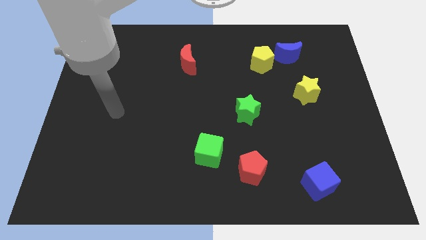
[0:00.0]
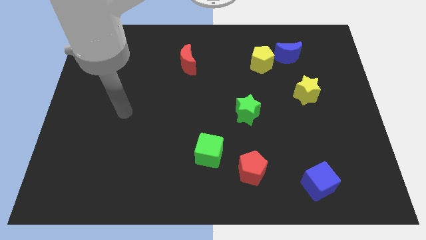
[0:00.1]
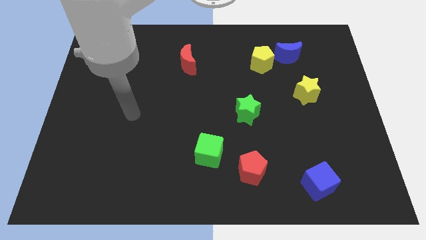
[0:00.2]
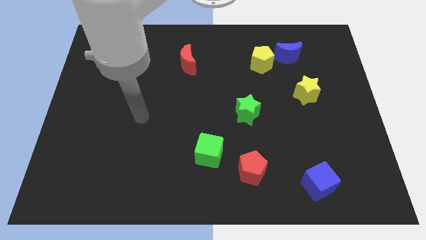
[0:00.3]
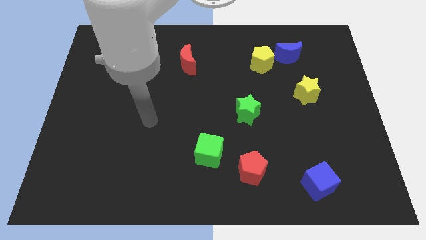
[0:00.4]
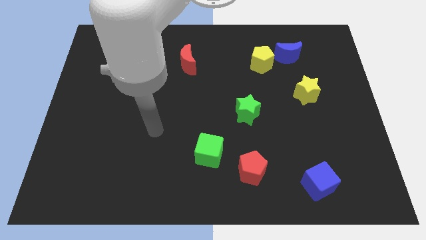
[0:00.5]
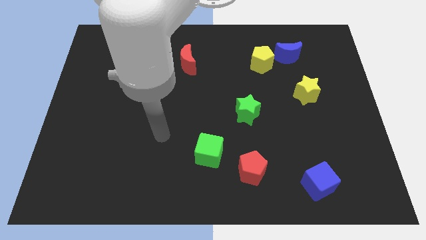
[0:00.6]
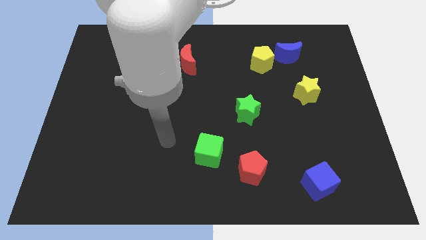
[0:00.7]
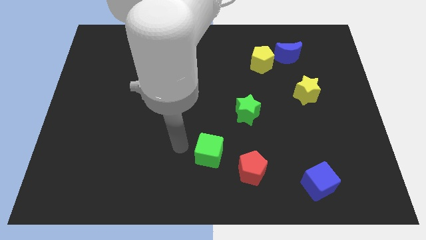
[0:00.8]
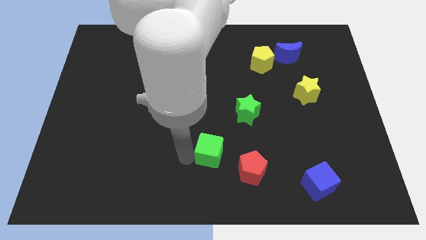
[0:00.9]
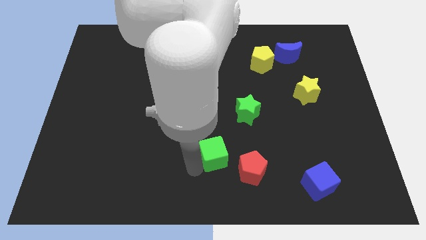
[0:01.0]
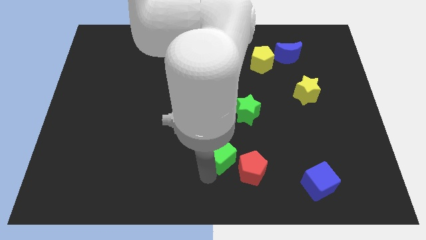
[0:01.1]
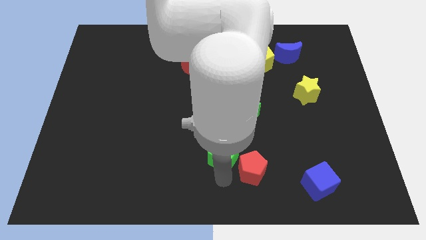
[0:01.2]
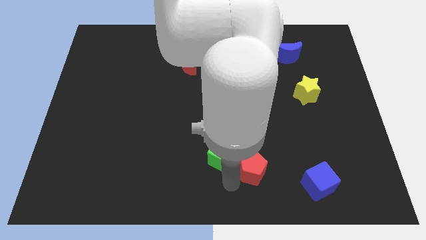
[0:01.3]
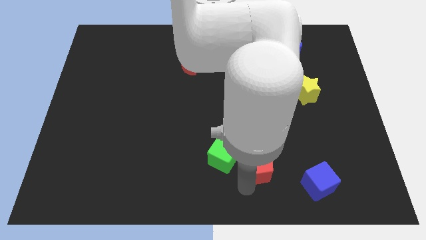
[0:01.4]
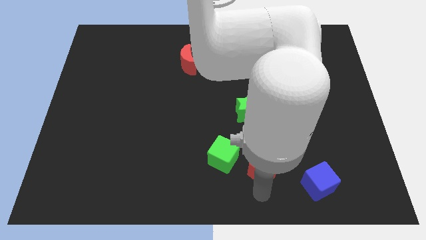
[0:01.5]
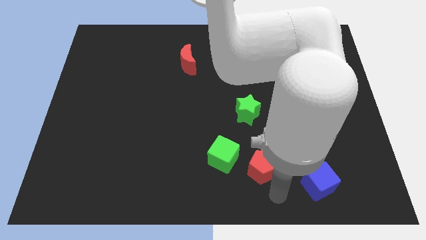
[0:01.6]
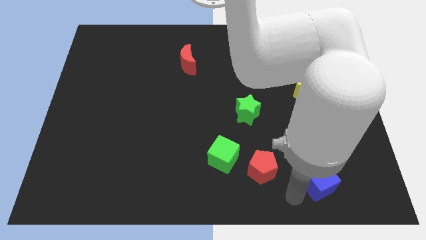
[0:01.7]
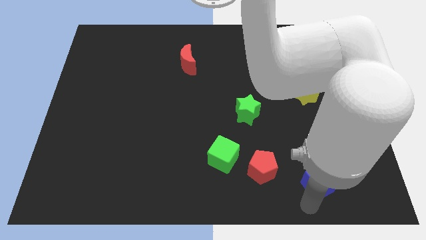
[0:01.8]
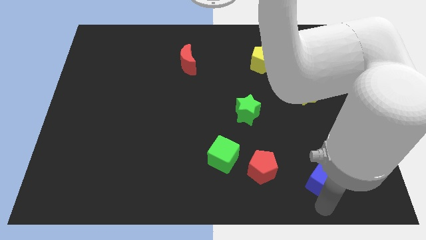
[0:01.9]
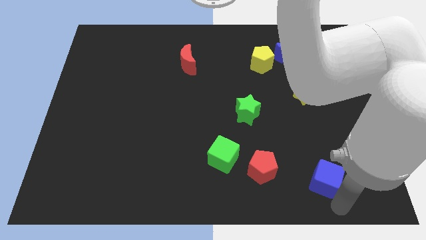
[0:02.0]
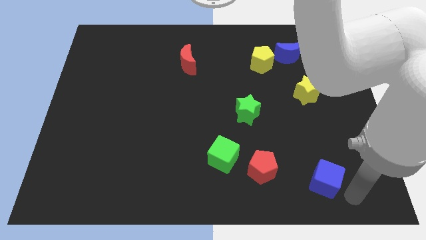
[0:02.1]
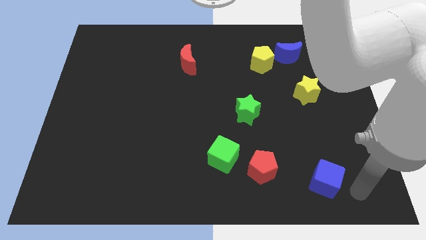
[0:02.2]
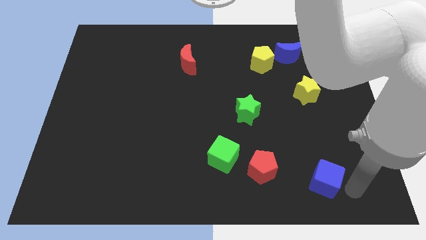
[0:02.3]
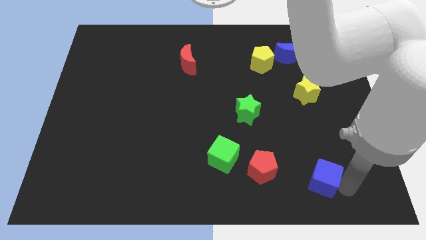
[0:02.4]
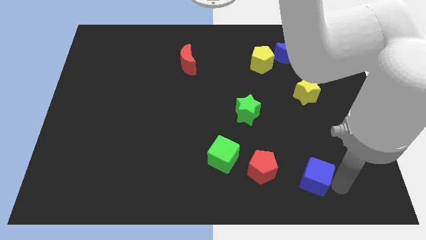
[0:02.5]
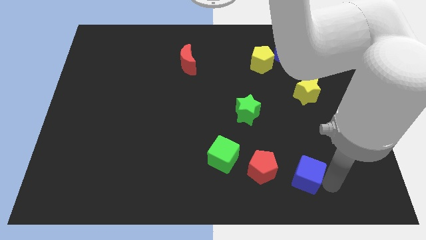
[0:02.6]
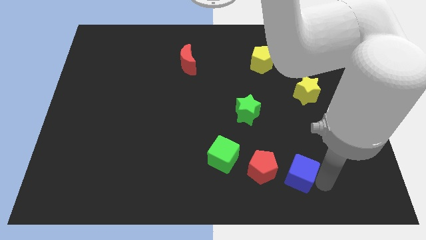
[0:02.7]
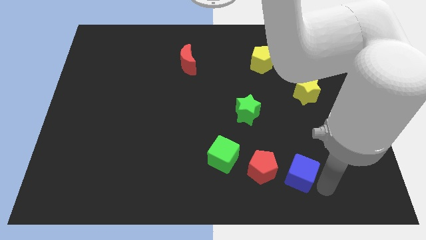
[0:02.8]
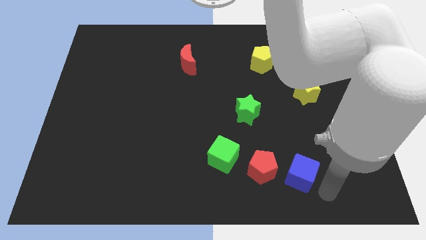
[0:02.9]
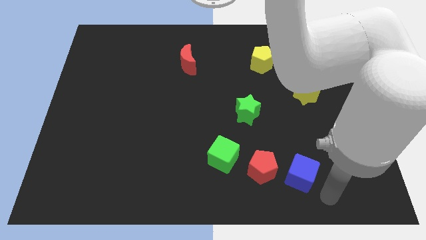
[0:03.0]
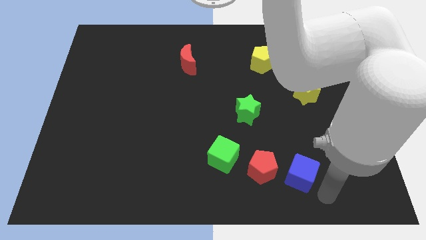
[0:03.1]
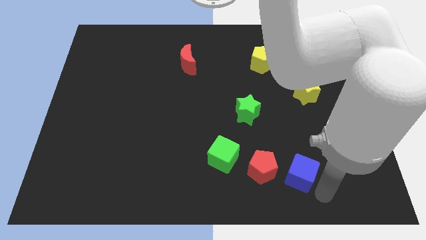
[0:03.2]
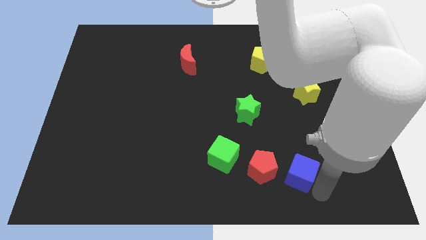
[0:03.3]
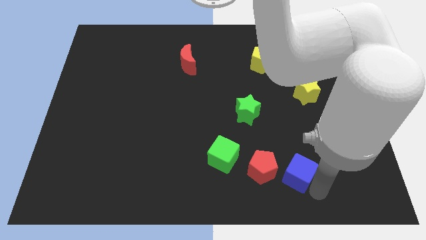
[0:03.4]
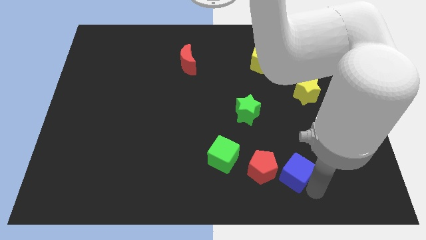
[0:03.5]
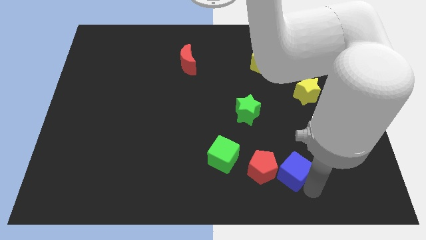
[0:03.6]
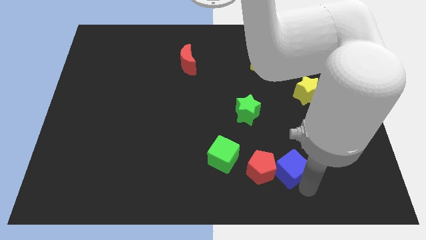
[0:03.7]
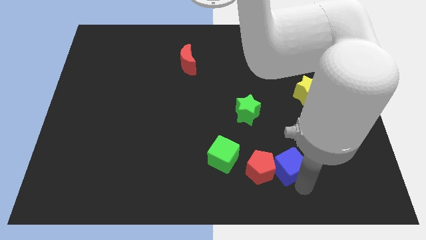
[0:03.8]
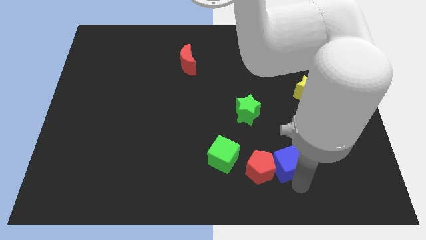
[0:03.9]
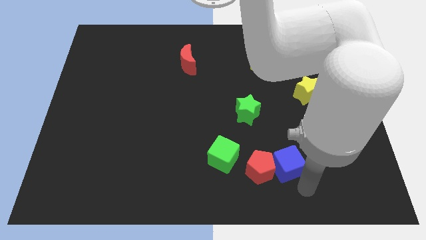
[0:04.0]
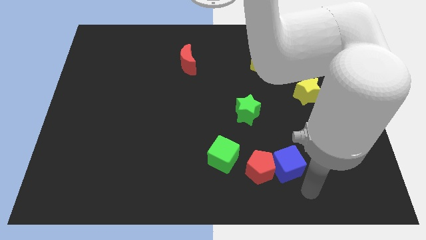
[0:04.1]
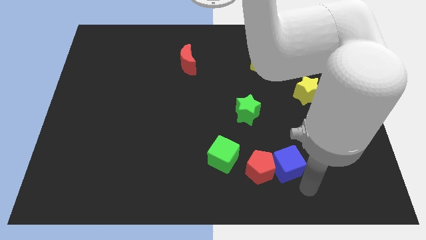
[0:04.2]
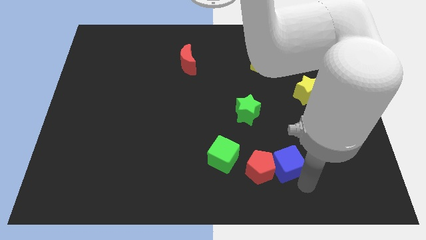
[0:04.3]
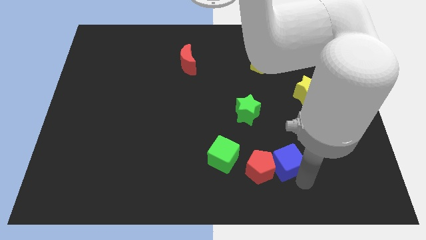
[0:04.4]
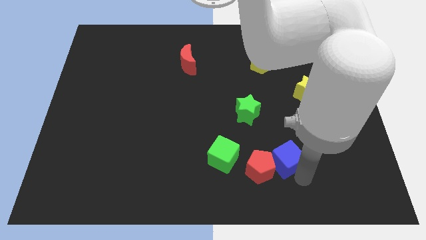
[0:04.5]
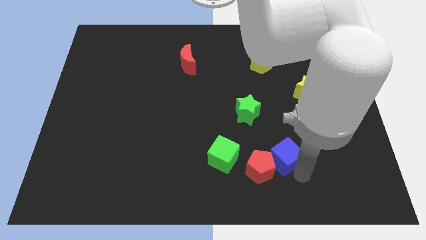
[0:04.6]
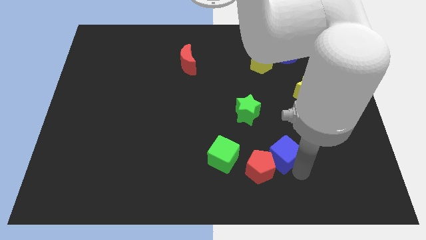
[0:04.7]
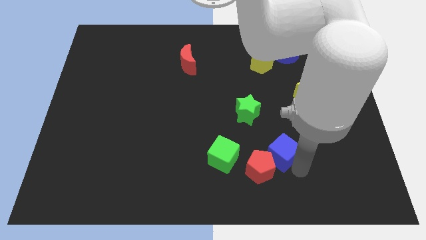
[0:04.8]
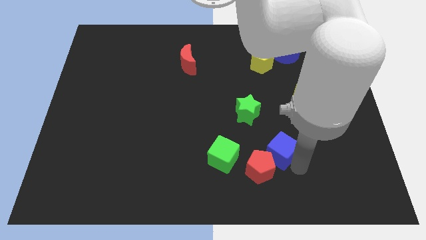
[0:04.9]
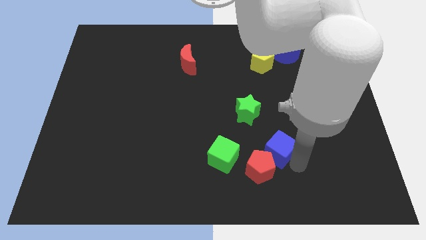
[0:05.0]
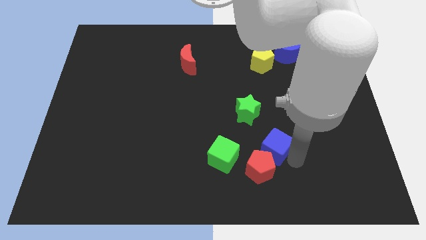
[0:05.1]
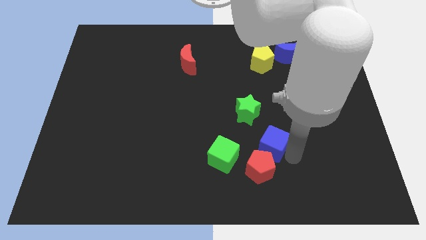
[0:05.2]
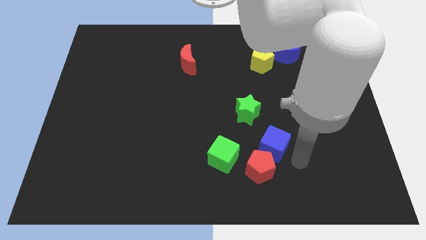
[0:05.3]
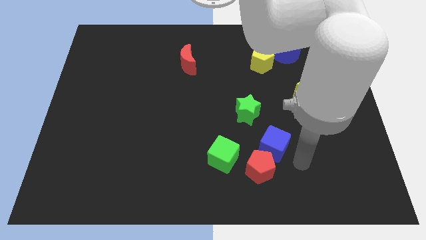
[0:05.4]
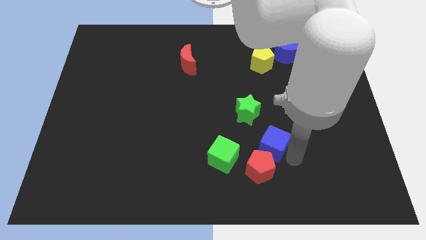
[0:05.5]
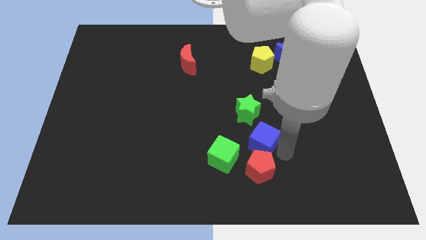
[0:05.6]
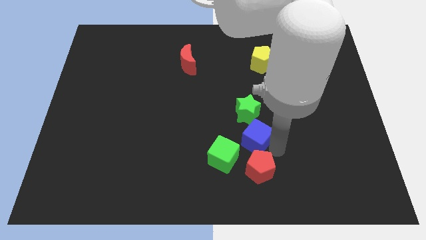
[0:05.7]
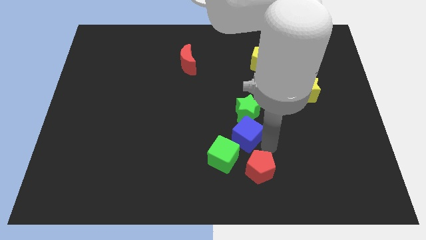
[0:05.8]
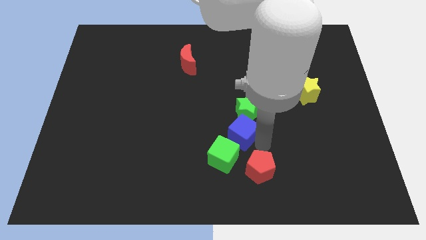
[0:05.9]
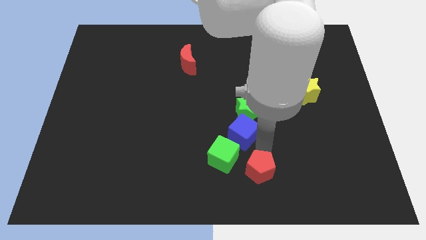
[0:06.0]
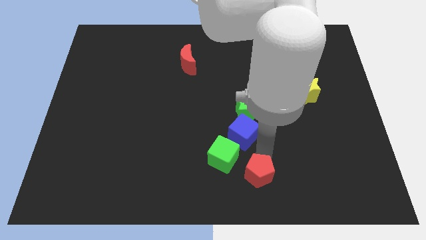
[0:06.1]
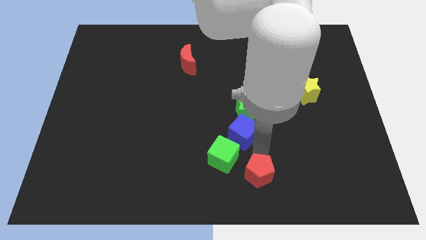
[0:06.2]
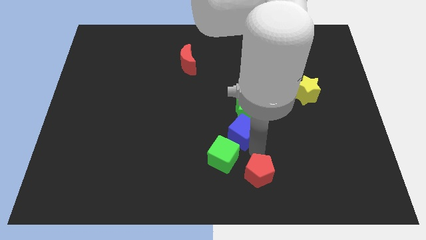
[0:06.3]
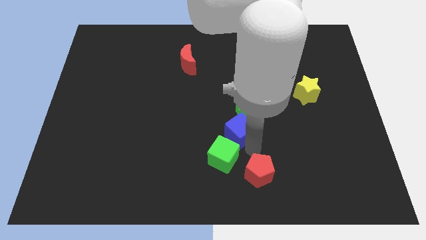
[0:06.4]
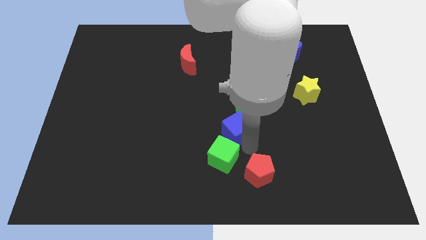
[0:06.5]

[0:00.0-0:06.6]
push the blue cube upwards and then left

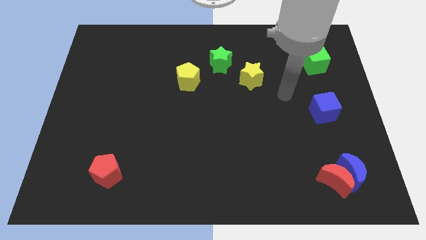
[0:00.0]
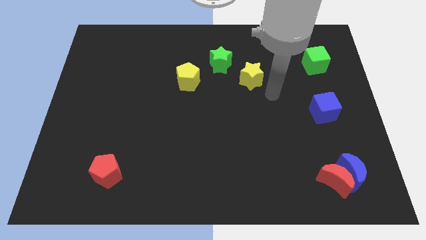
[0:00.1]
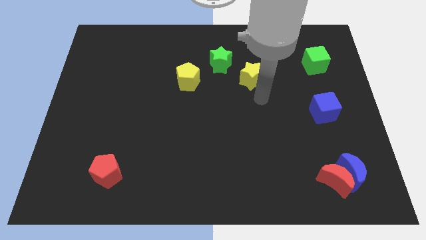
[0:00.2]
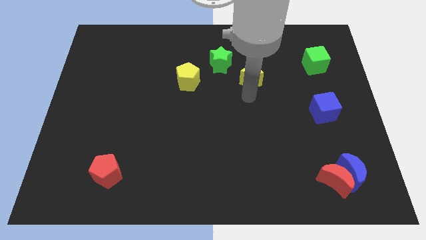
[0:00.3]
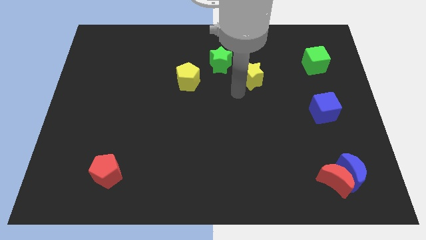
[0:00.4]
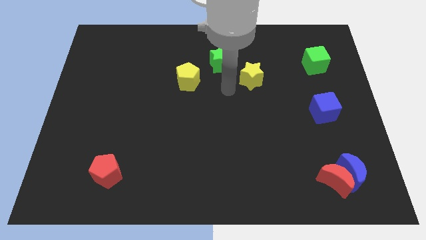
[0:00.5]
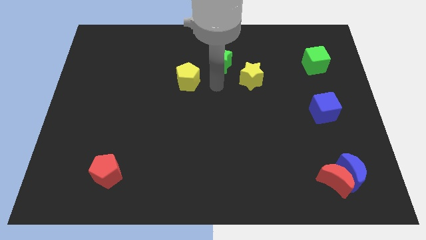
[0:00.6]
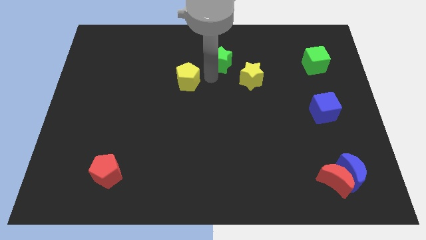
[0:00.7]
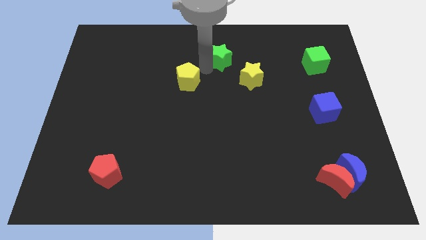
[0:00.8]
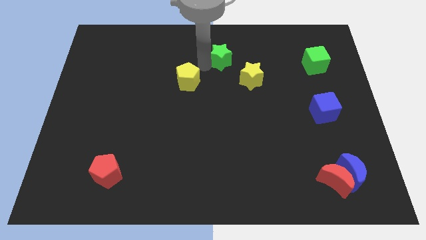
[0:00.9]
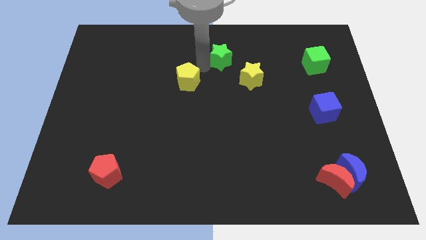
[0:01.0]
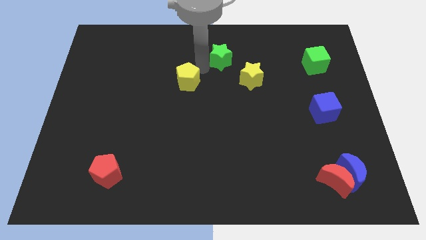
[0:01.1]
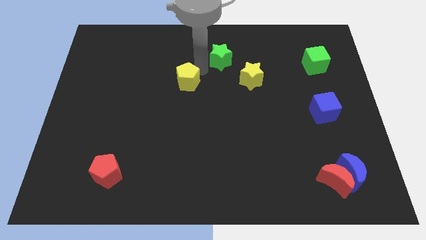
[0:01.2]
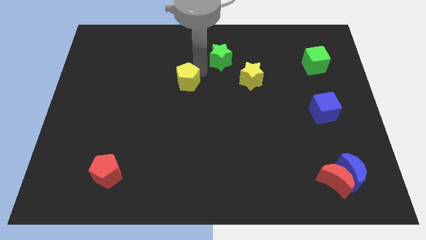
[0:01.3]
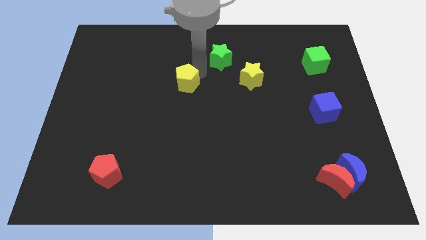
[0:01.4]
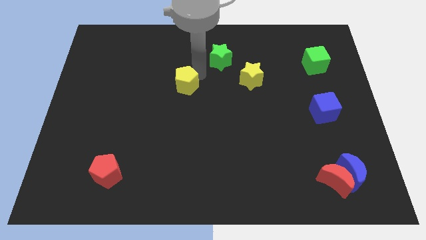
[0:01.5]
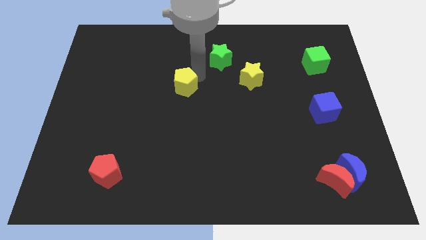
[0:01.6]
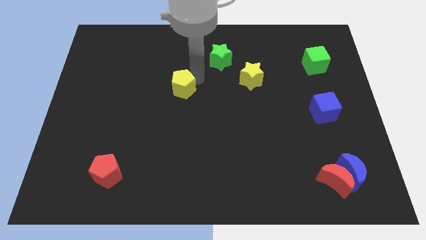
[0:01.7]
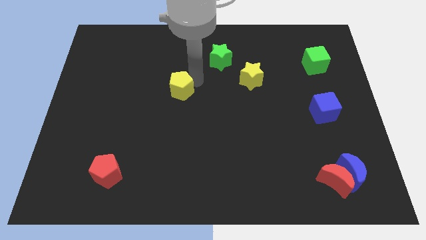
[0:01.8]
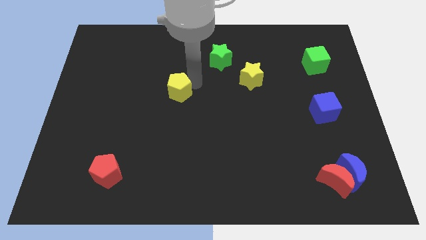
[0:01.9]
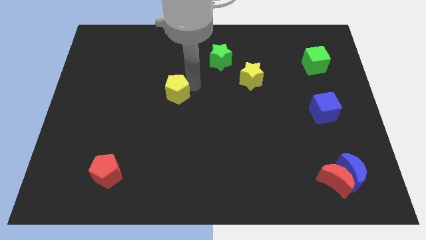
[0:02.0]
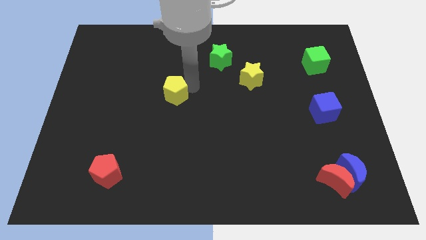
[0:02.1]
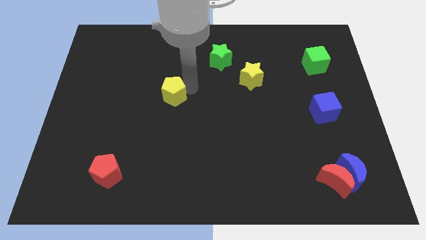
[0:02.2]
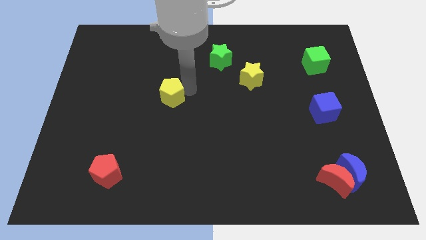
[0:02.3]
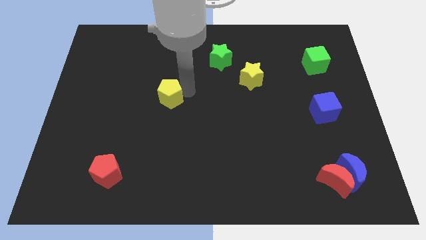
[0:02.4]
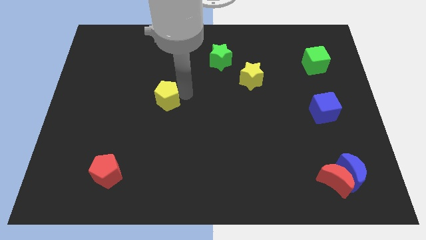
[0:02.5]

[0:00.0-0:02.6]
slide the yellow pentagon a bit downwards and then to the left
